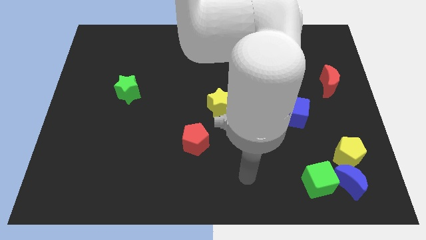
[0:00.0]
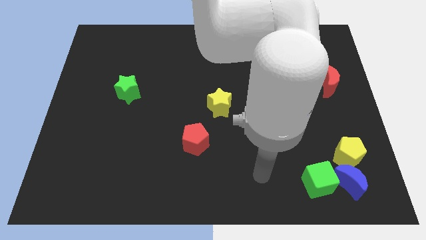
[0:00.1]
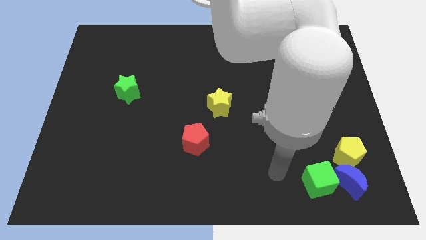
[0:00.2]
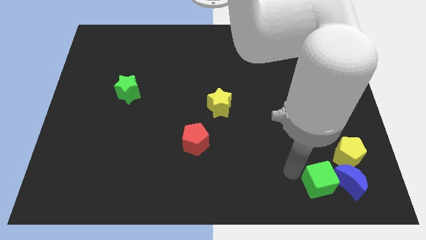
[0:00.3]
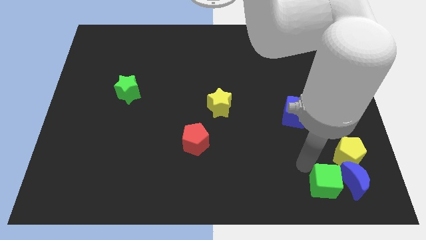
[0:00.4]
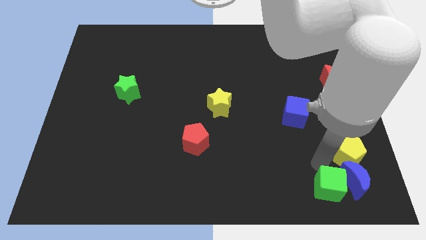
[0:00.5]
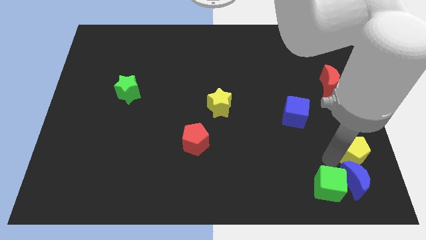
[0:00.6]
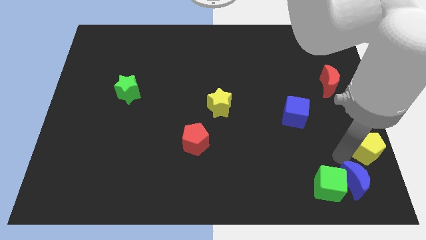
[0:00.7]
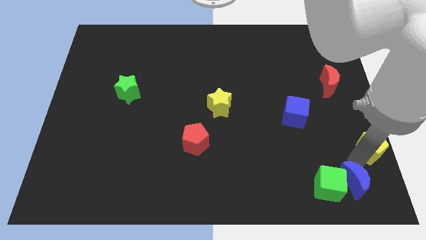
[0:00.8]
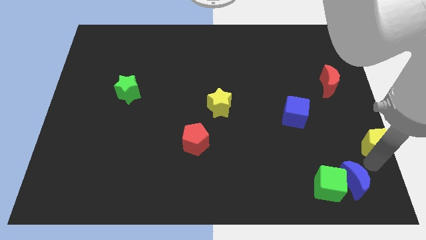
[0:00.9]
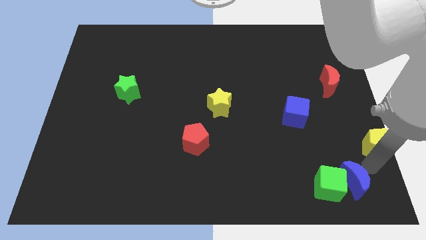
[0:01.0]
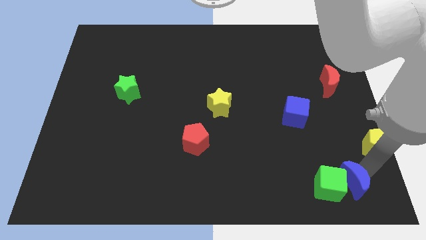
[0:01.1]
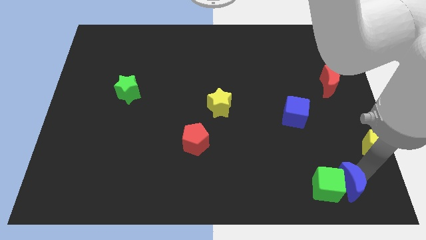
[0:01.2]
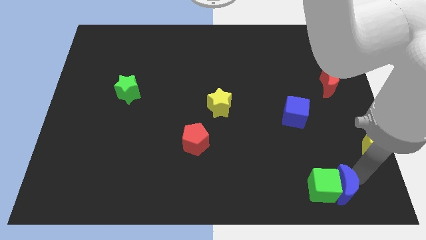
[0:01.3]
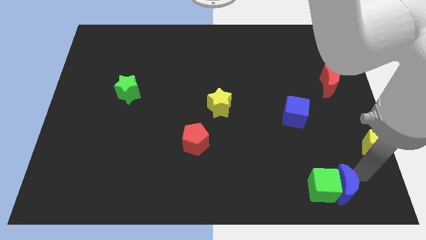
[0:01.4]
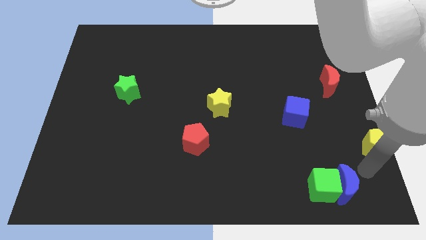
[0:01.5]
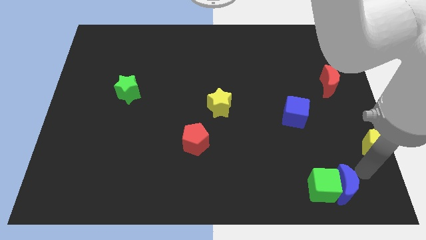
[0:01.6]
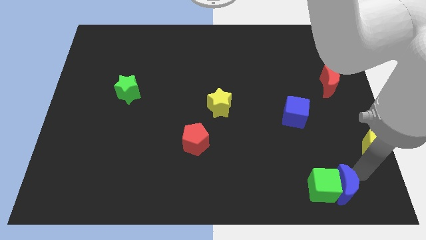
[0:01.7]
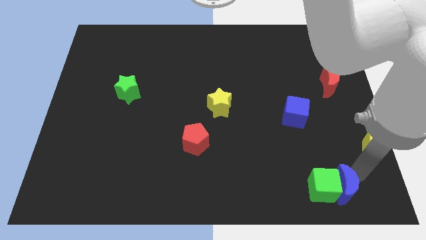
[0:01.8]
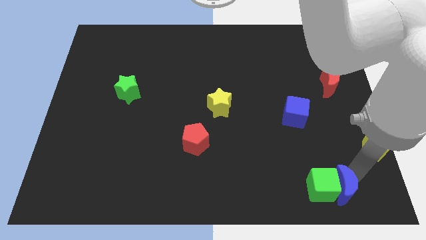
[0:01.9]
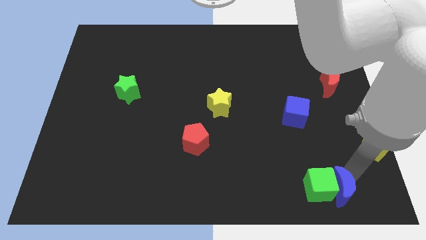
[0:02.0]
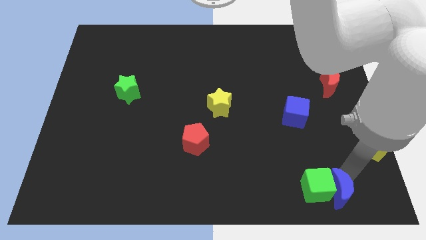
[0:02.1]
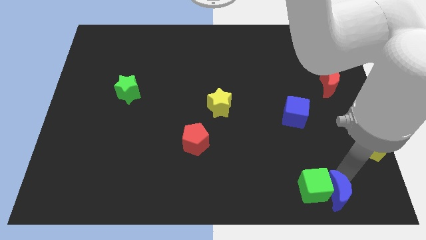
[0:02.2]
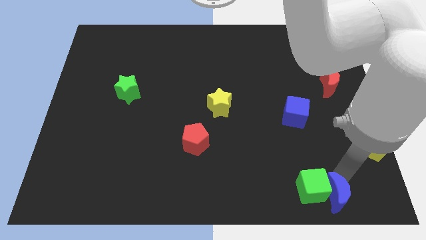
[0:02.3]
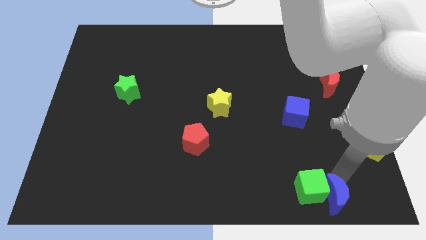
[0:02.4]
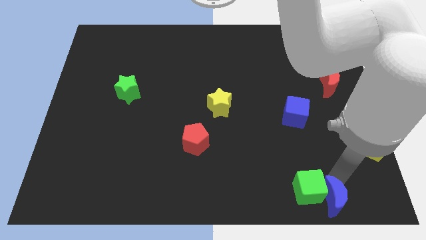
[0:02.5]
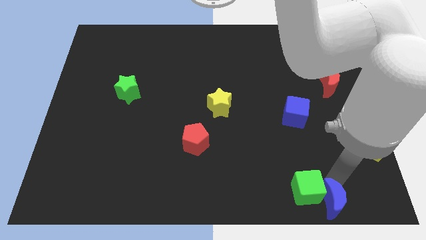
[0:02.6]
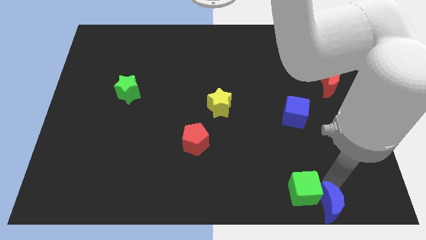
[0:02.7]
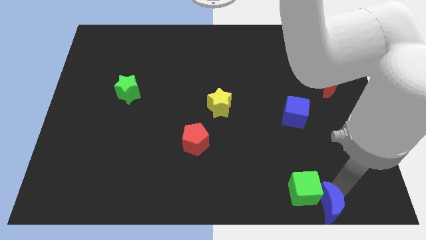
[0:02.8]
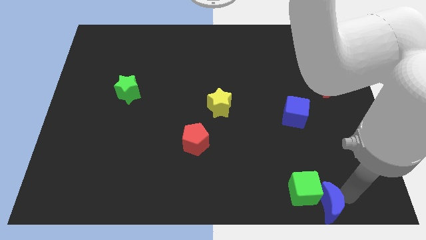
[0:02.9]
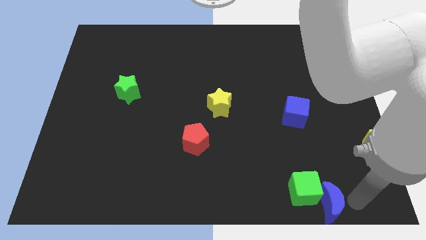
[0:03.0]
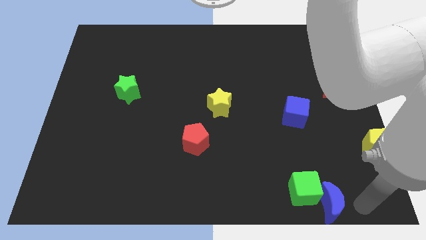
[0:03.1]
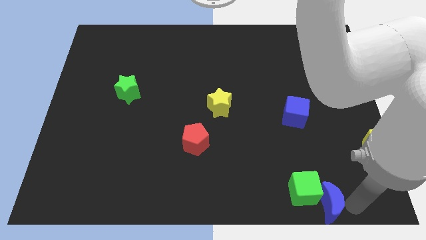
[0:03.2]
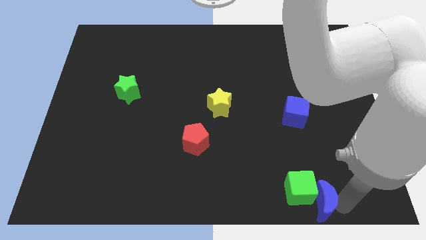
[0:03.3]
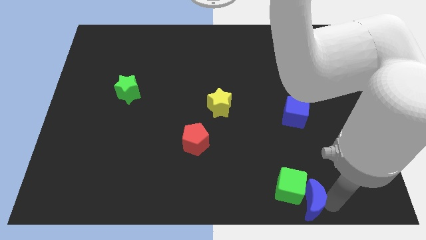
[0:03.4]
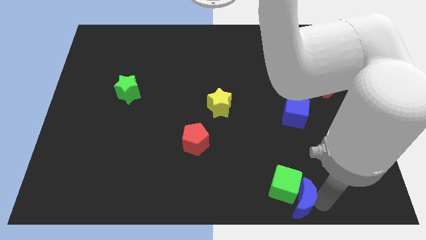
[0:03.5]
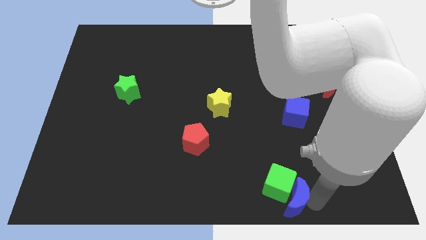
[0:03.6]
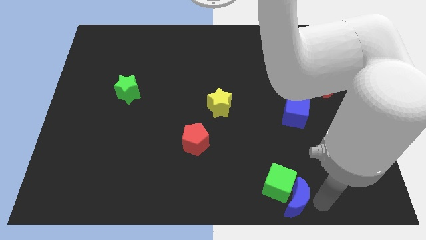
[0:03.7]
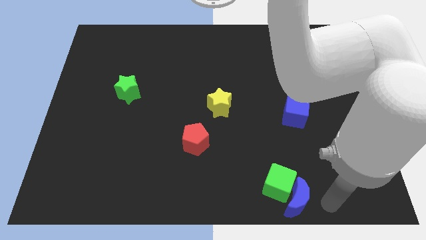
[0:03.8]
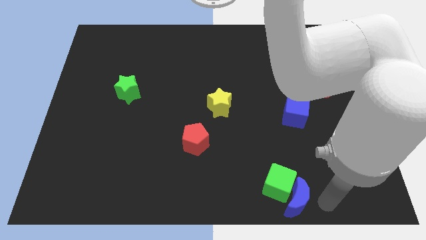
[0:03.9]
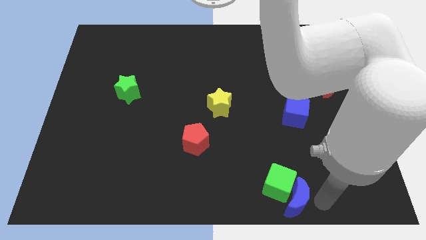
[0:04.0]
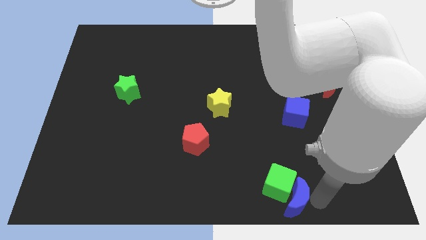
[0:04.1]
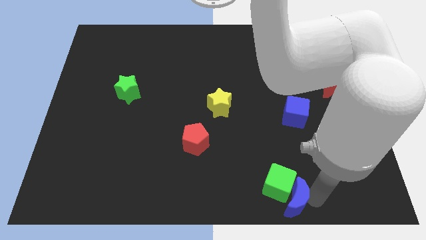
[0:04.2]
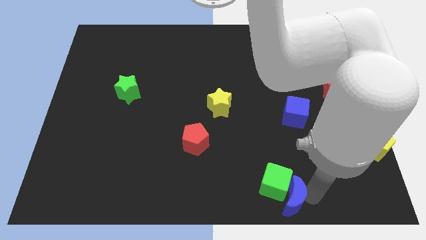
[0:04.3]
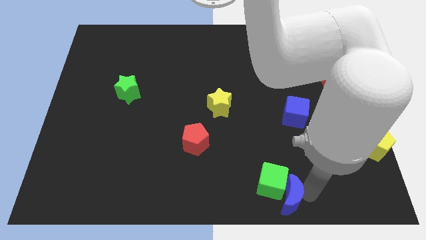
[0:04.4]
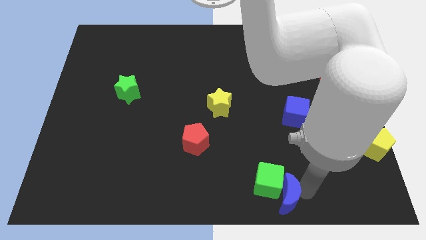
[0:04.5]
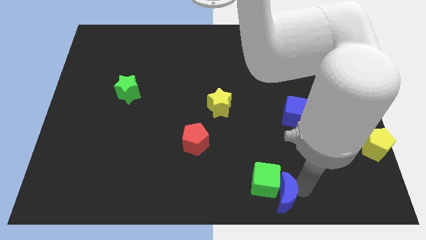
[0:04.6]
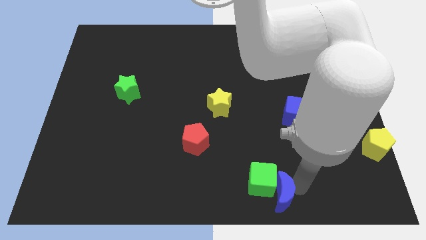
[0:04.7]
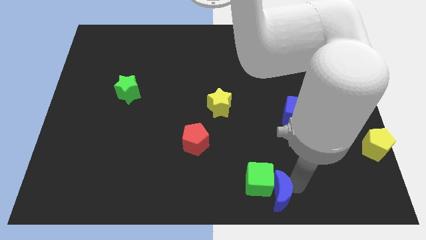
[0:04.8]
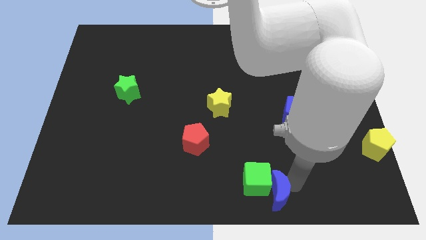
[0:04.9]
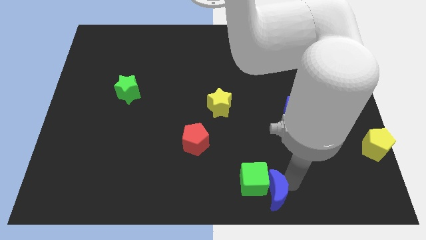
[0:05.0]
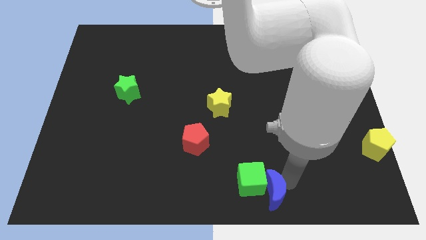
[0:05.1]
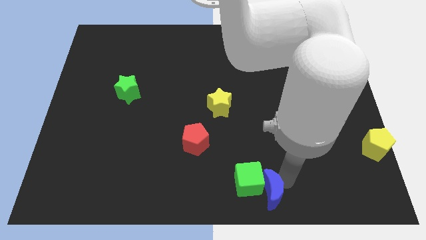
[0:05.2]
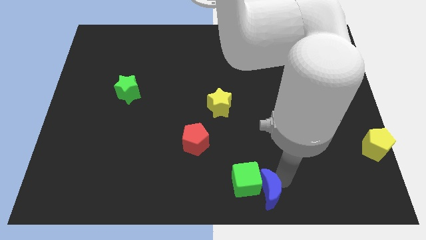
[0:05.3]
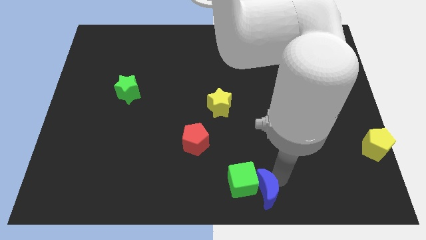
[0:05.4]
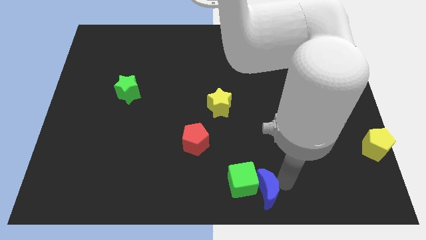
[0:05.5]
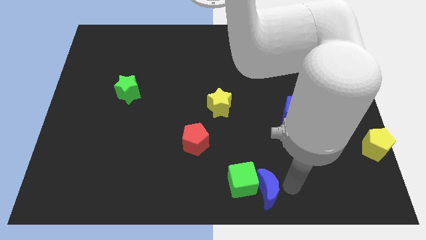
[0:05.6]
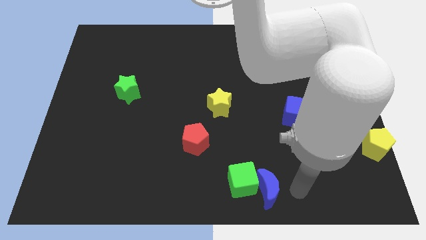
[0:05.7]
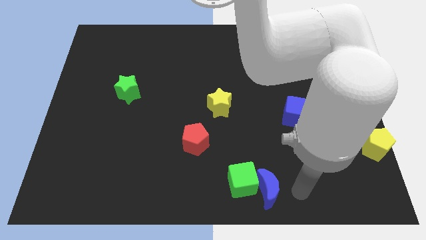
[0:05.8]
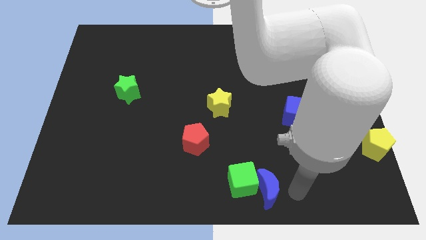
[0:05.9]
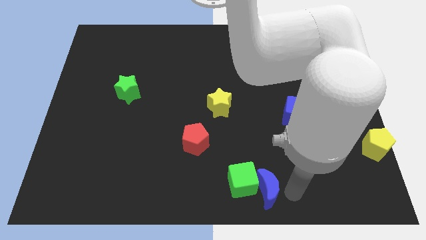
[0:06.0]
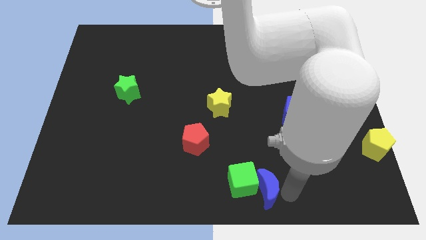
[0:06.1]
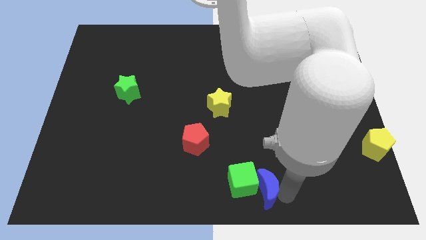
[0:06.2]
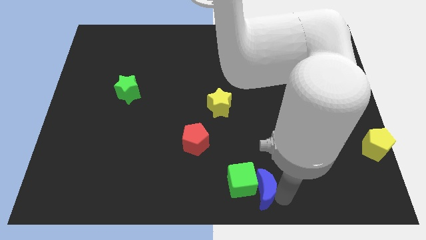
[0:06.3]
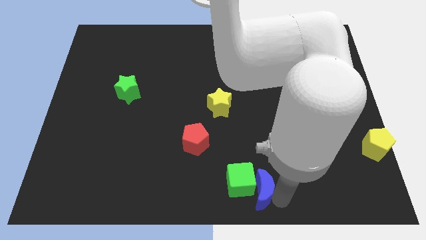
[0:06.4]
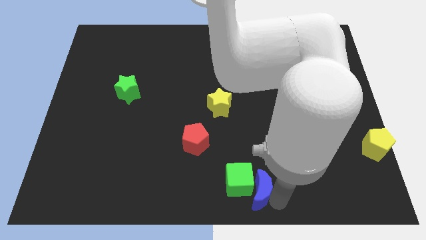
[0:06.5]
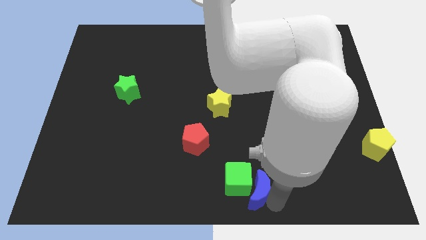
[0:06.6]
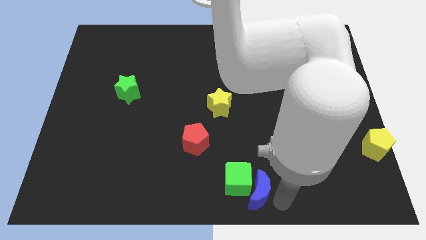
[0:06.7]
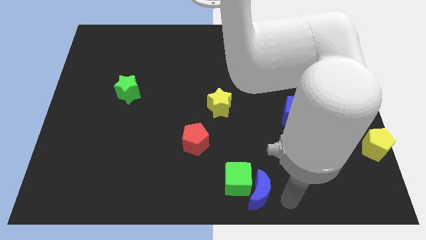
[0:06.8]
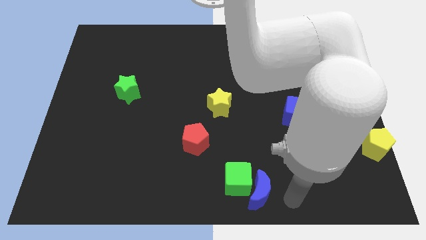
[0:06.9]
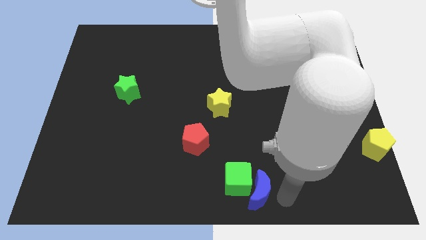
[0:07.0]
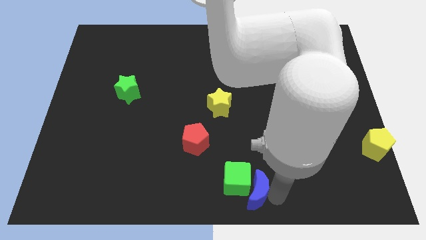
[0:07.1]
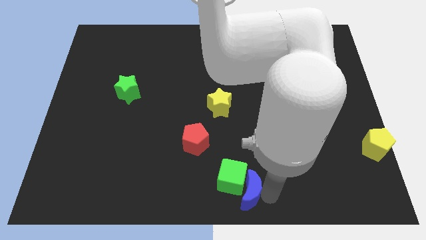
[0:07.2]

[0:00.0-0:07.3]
push the blue moon left

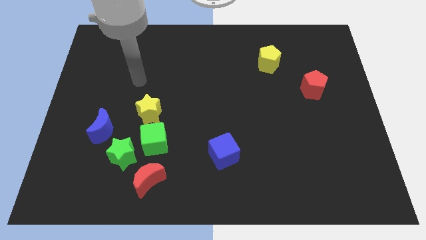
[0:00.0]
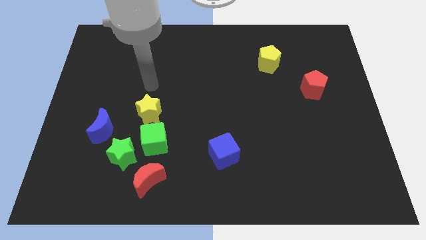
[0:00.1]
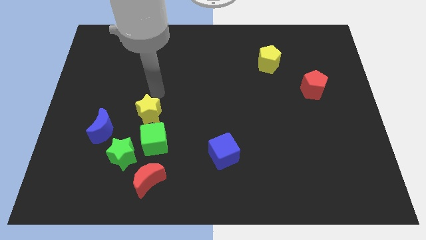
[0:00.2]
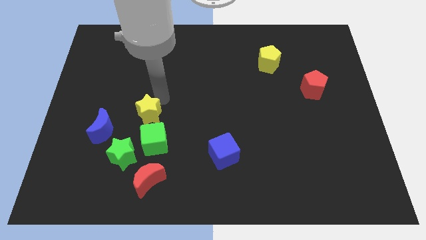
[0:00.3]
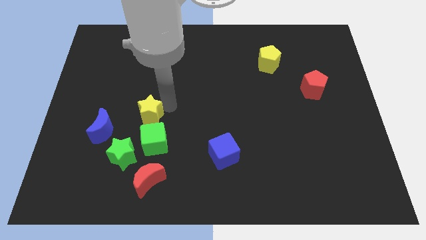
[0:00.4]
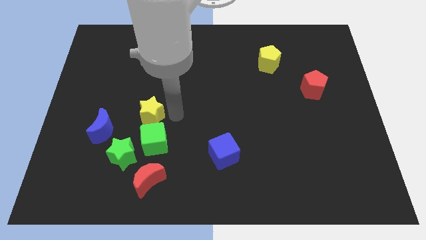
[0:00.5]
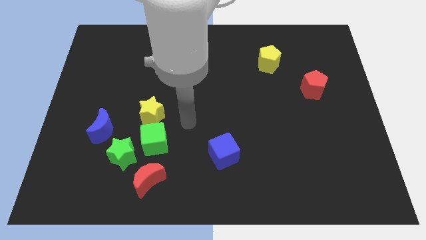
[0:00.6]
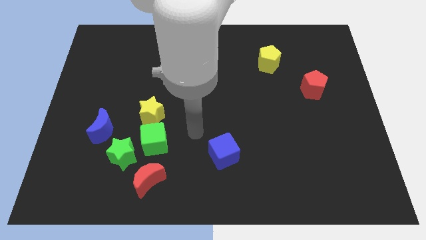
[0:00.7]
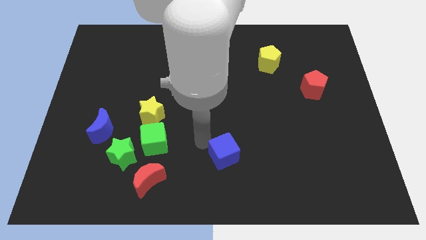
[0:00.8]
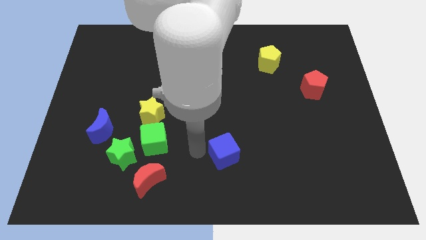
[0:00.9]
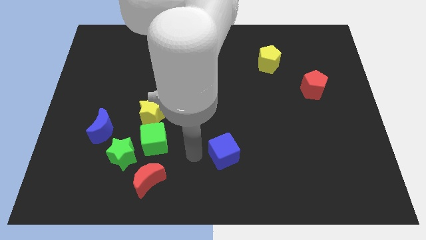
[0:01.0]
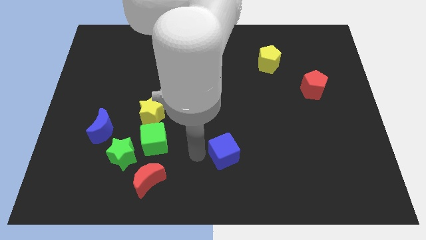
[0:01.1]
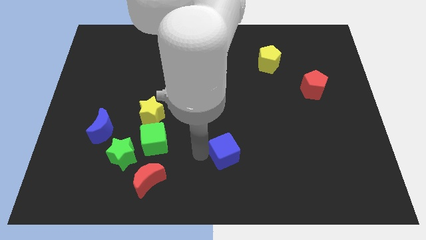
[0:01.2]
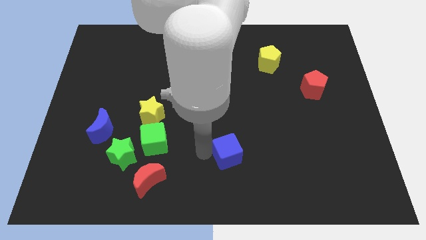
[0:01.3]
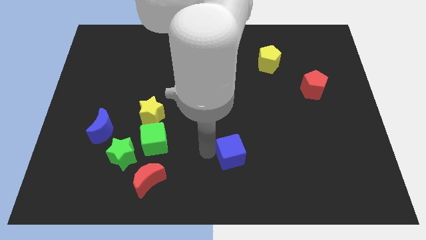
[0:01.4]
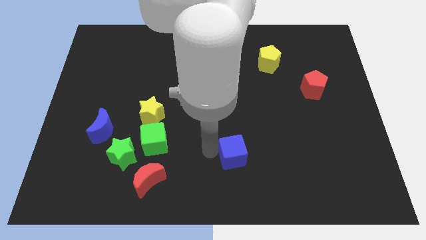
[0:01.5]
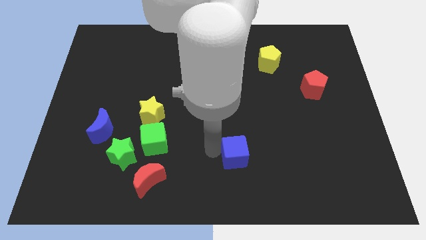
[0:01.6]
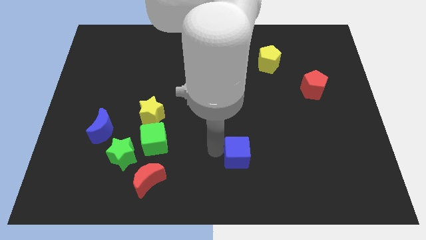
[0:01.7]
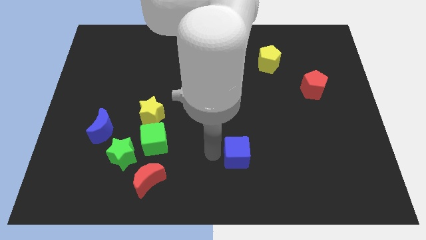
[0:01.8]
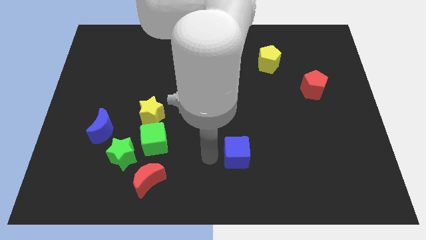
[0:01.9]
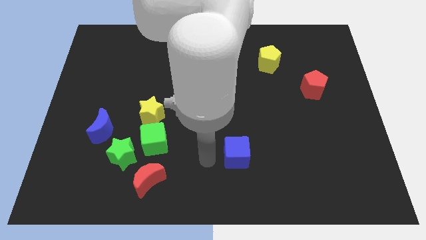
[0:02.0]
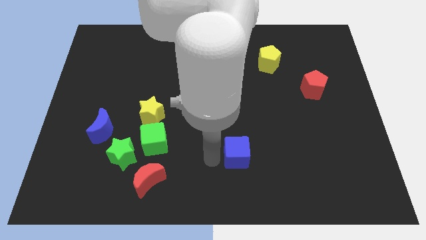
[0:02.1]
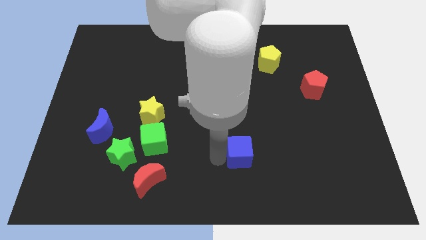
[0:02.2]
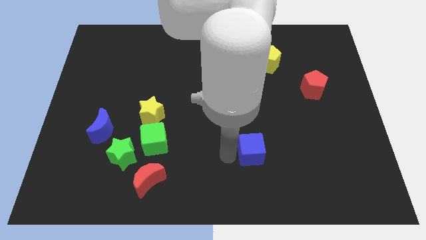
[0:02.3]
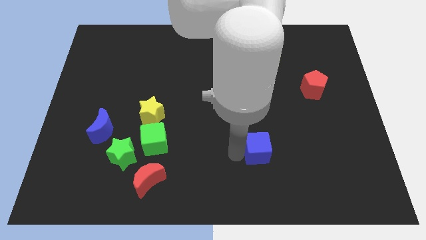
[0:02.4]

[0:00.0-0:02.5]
move the blue cube a little right
